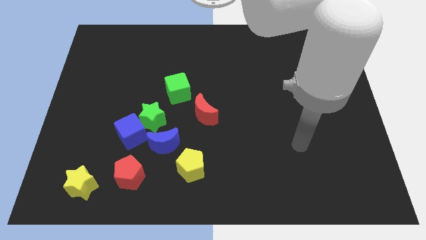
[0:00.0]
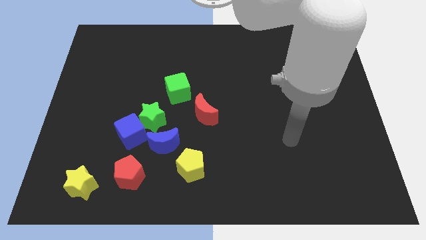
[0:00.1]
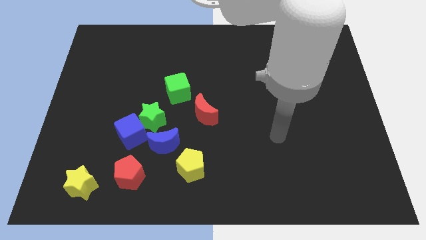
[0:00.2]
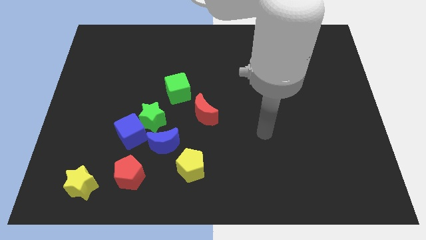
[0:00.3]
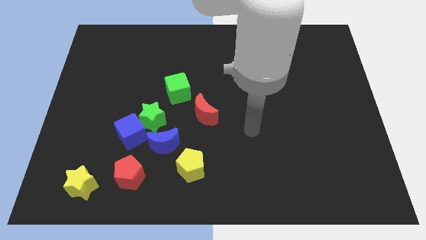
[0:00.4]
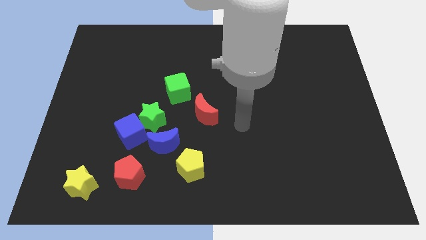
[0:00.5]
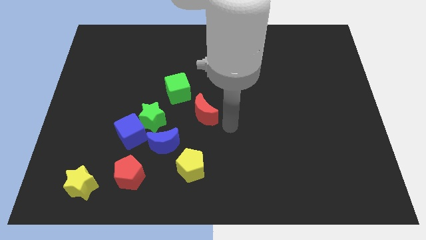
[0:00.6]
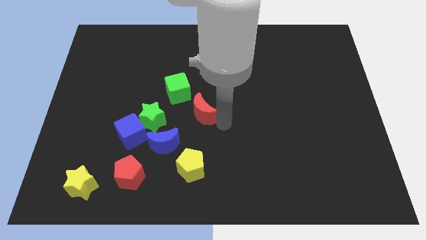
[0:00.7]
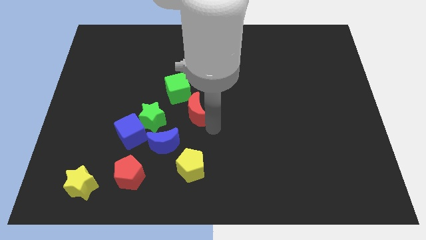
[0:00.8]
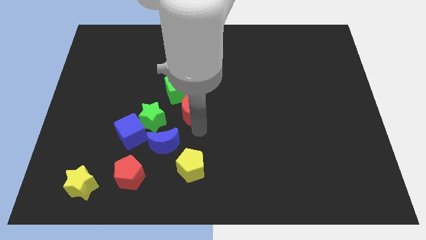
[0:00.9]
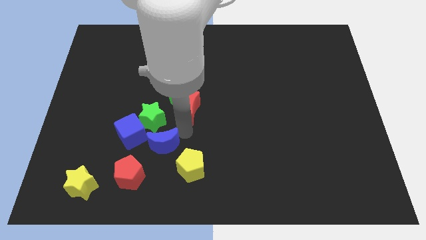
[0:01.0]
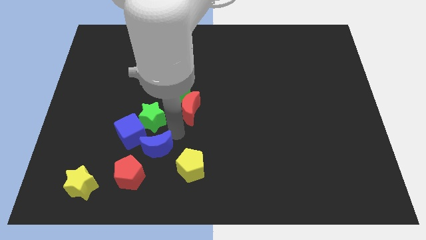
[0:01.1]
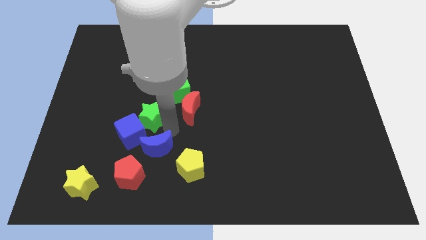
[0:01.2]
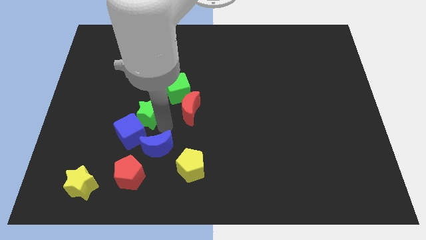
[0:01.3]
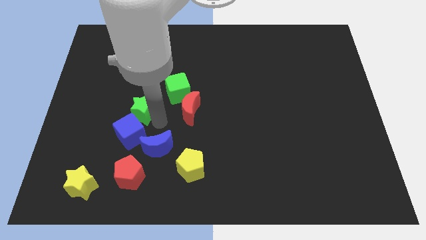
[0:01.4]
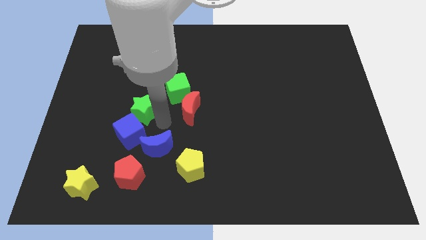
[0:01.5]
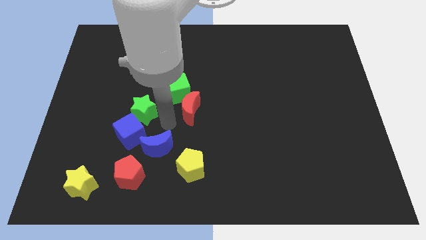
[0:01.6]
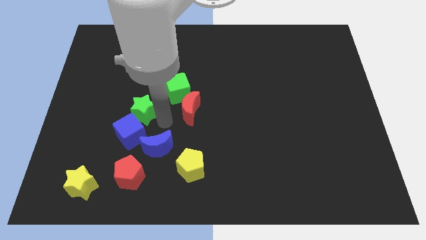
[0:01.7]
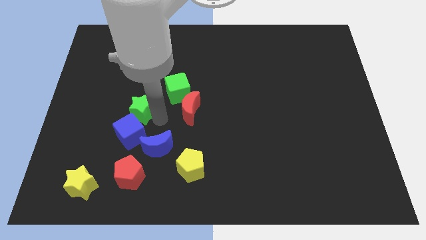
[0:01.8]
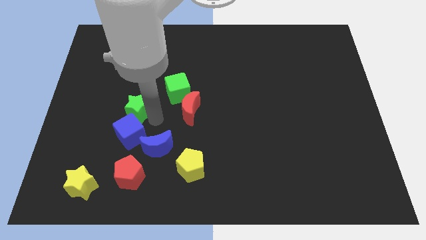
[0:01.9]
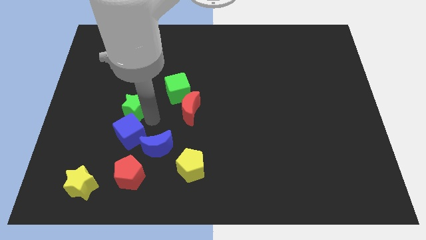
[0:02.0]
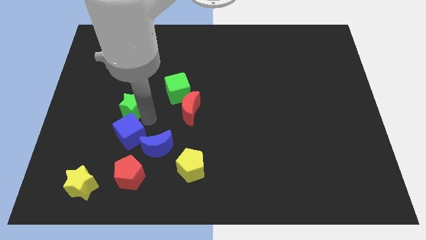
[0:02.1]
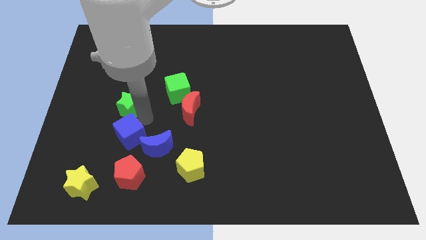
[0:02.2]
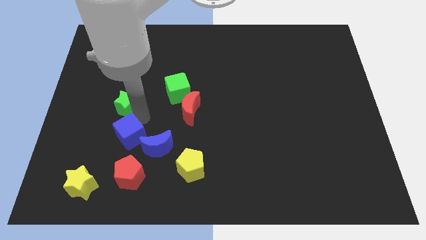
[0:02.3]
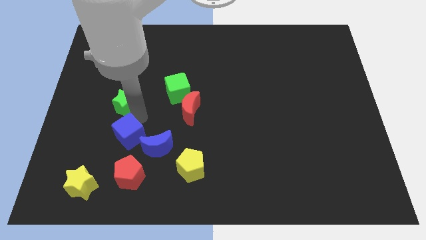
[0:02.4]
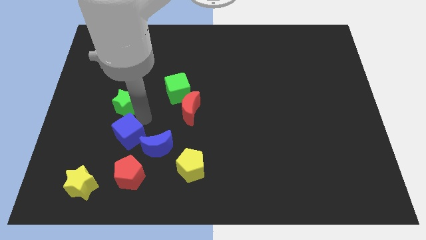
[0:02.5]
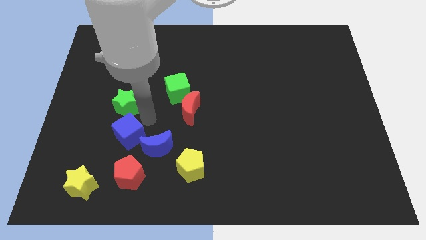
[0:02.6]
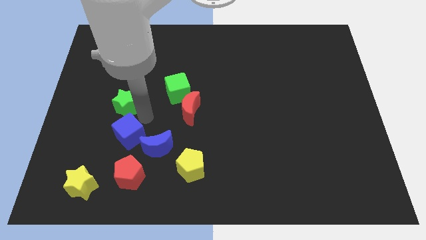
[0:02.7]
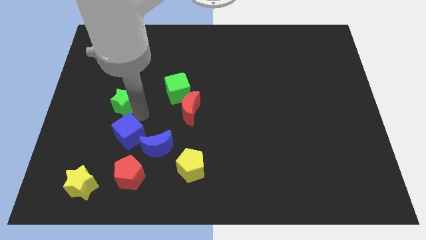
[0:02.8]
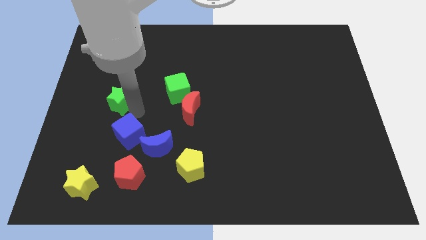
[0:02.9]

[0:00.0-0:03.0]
separate the green star from the group of blocks

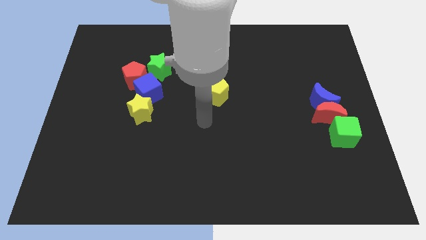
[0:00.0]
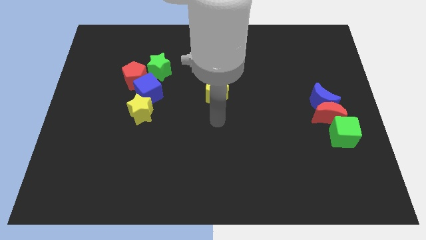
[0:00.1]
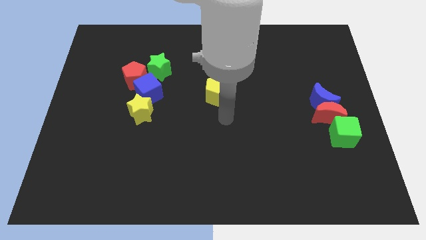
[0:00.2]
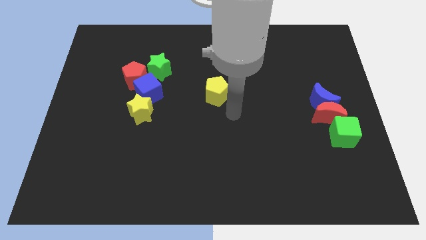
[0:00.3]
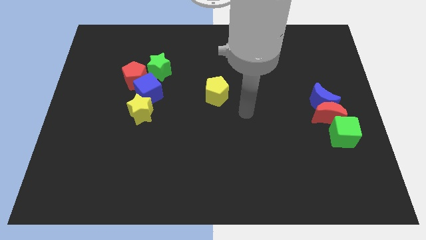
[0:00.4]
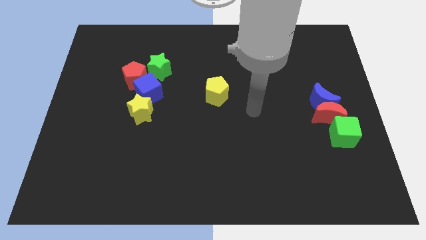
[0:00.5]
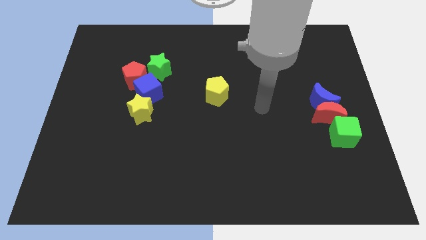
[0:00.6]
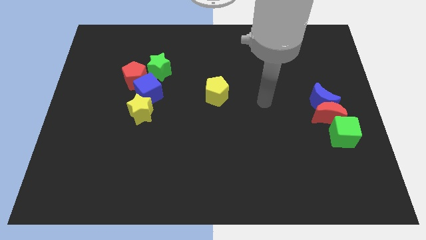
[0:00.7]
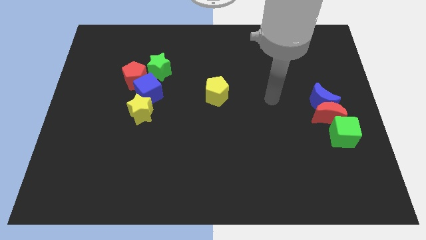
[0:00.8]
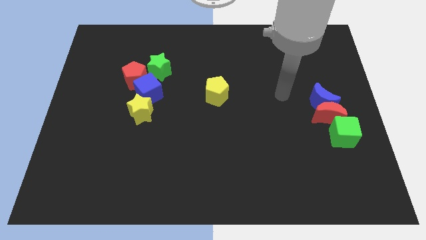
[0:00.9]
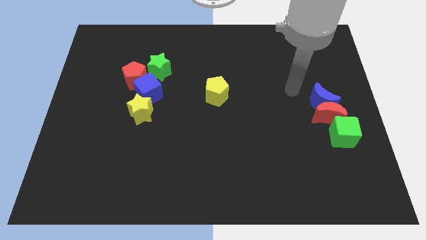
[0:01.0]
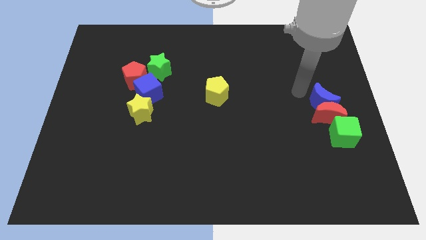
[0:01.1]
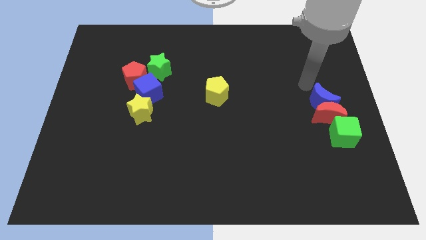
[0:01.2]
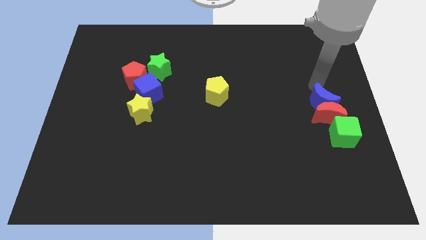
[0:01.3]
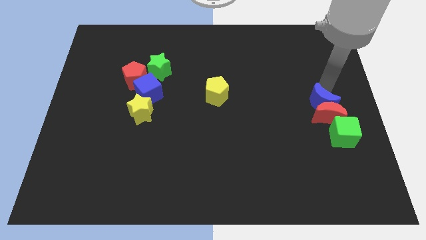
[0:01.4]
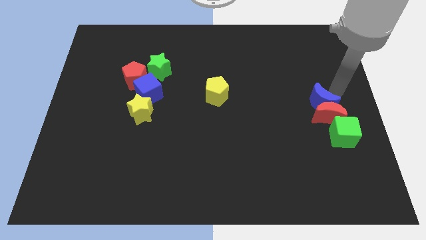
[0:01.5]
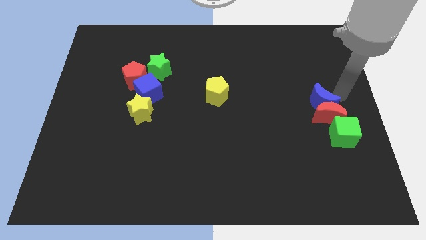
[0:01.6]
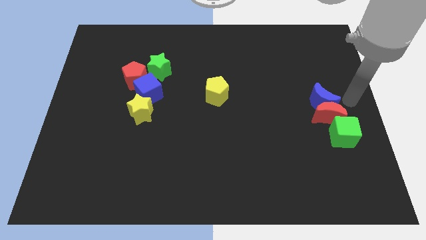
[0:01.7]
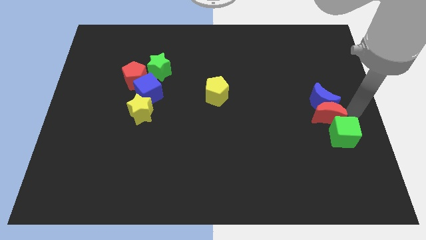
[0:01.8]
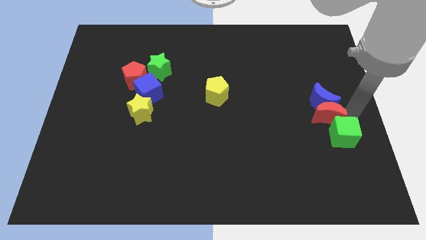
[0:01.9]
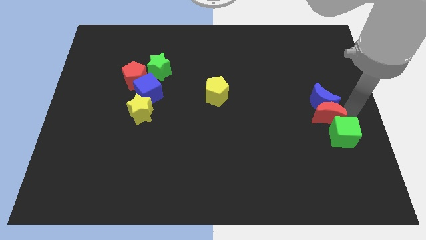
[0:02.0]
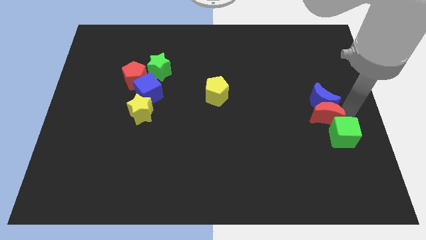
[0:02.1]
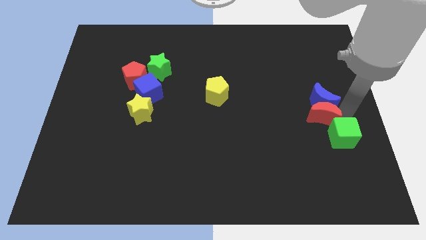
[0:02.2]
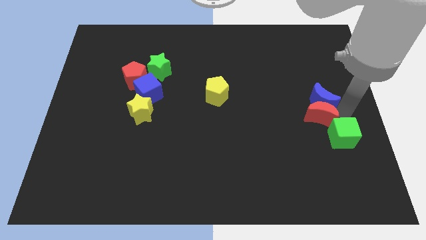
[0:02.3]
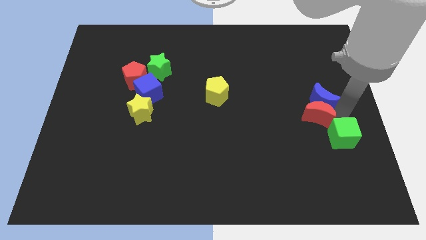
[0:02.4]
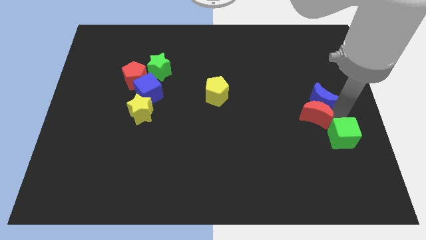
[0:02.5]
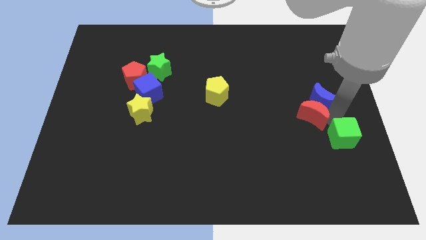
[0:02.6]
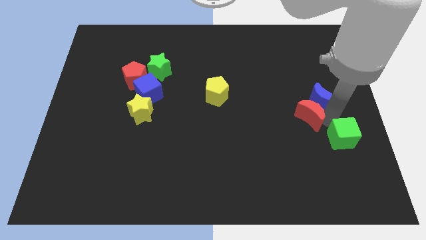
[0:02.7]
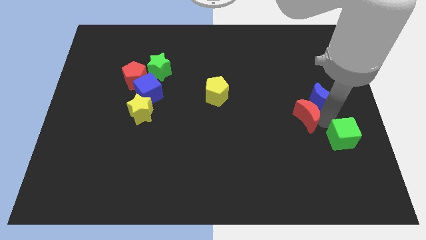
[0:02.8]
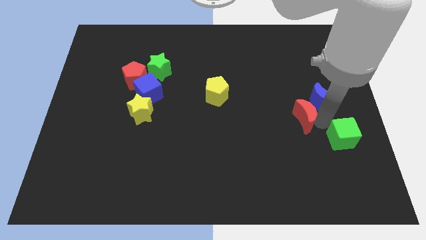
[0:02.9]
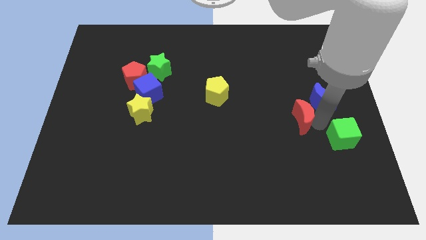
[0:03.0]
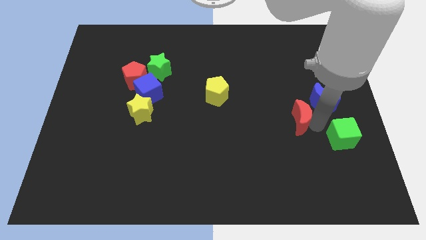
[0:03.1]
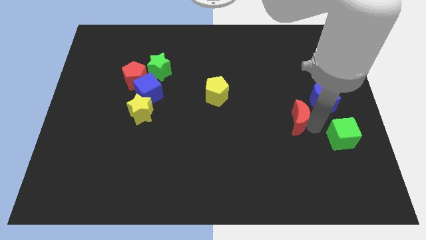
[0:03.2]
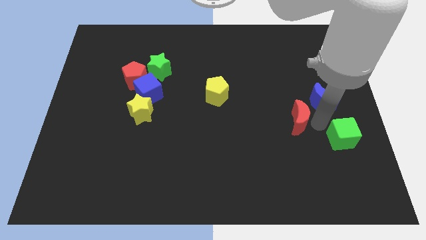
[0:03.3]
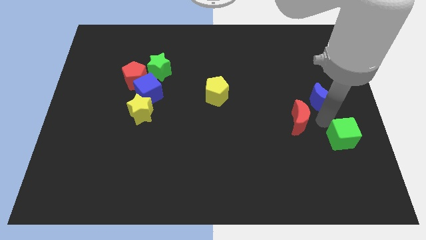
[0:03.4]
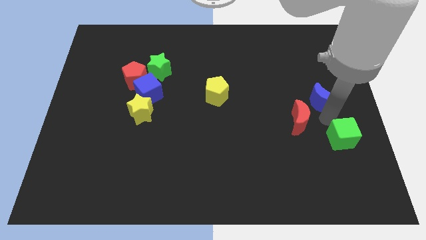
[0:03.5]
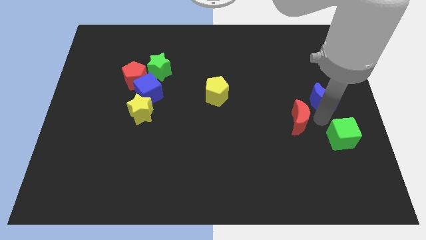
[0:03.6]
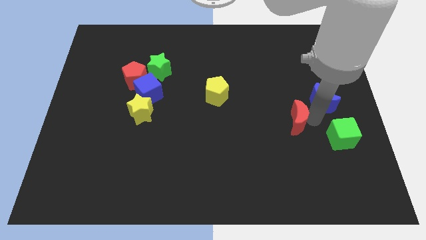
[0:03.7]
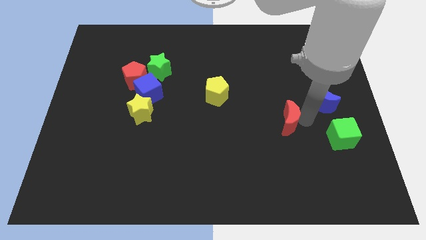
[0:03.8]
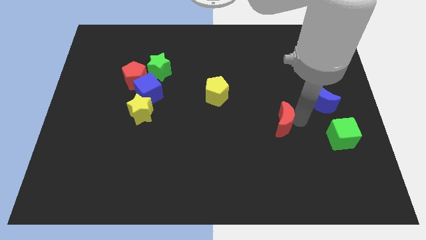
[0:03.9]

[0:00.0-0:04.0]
pull the red moon apart from the blue moon and green cube

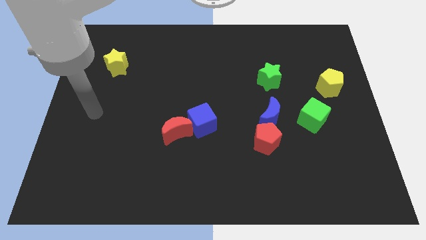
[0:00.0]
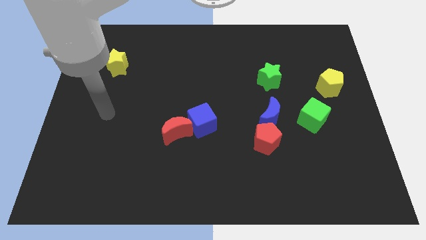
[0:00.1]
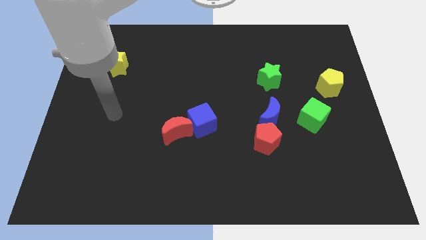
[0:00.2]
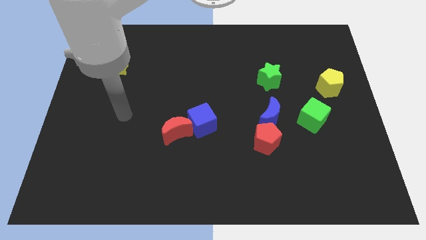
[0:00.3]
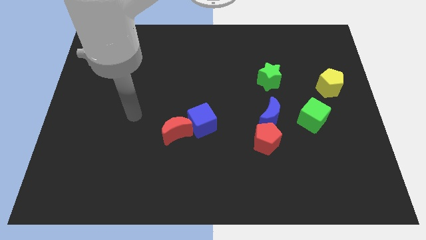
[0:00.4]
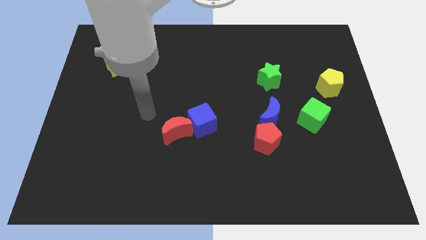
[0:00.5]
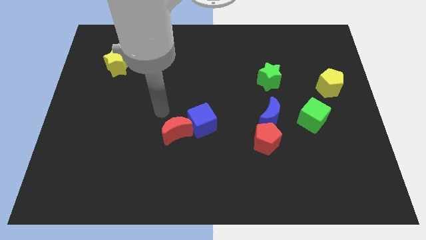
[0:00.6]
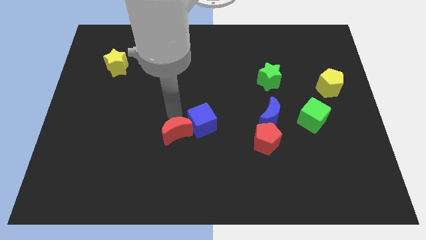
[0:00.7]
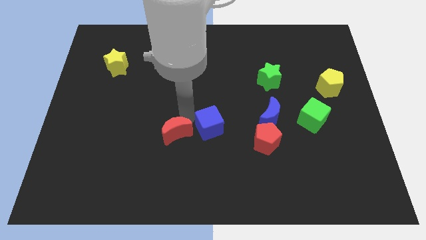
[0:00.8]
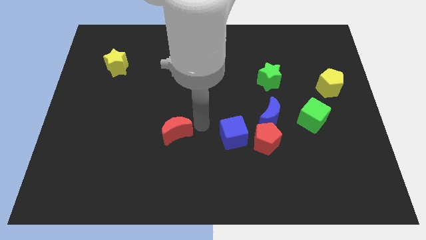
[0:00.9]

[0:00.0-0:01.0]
move the red moon away from the blue cube

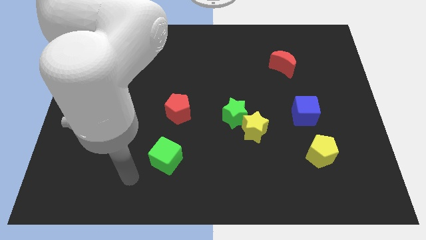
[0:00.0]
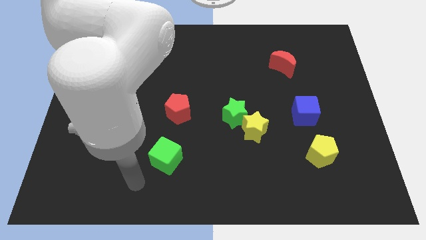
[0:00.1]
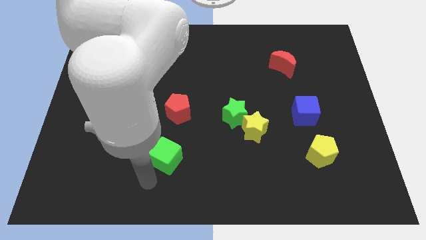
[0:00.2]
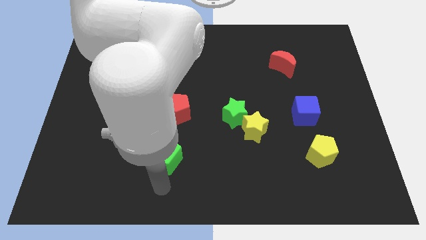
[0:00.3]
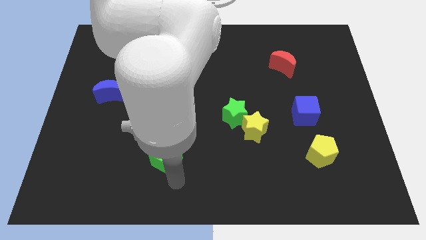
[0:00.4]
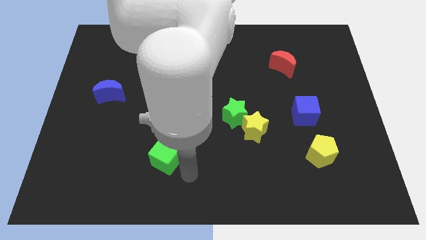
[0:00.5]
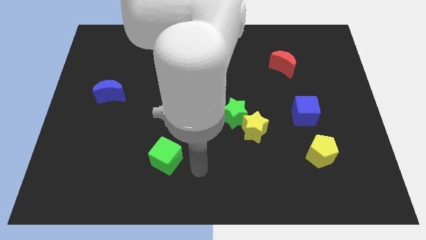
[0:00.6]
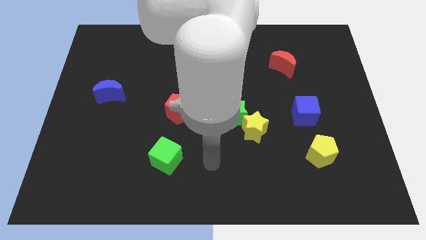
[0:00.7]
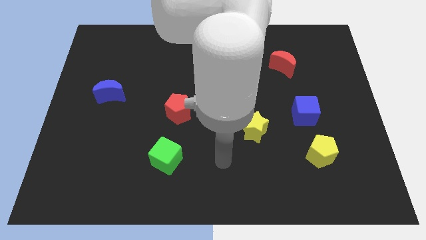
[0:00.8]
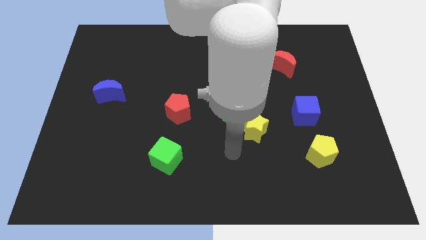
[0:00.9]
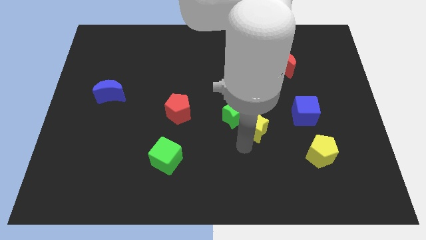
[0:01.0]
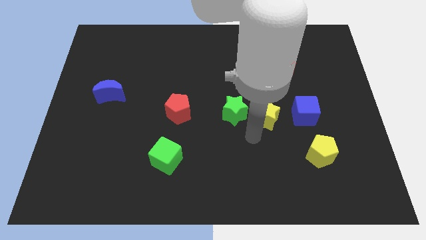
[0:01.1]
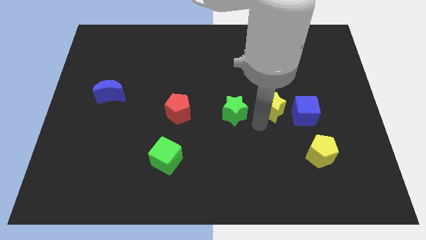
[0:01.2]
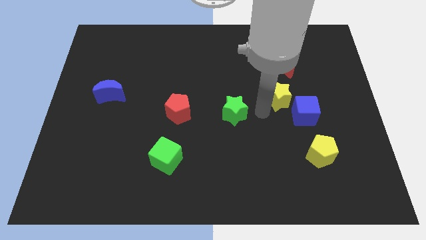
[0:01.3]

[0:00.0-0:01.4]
separate the green star from the yellow star
